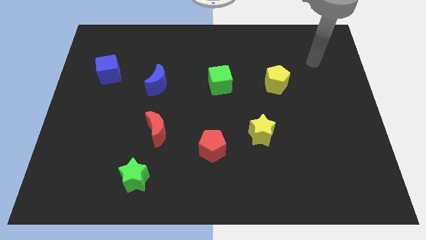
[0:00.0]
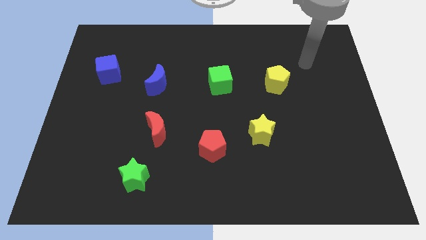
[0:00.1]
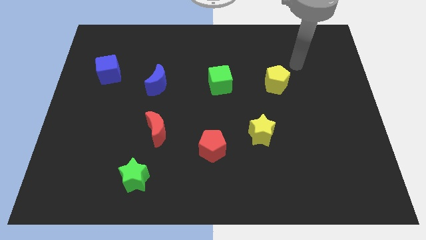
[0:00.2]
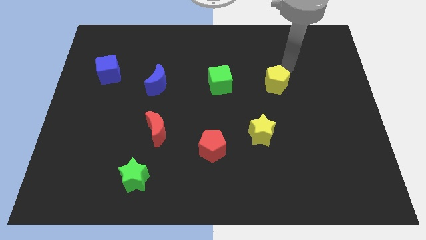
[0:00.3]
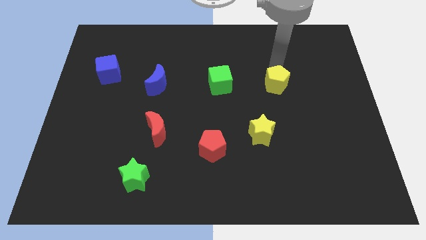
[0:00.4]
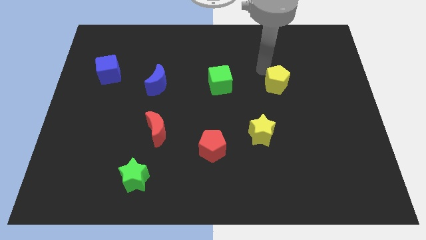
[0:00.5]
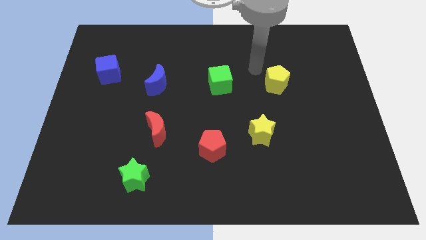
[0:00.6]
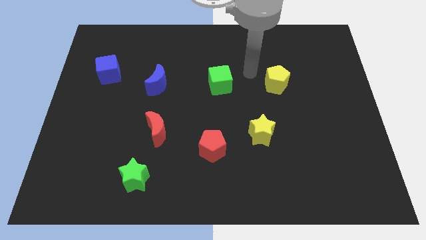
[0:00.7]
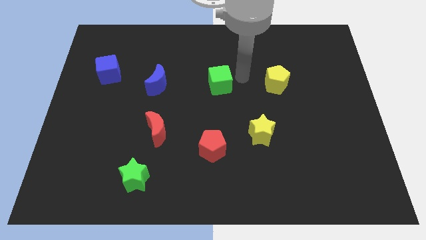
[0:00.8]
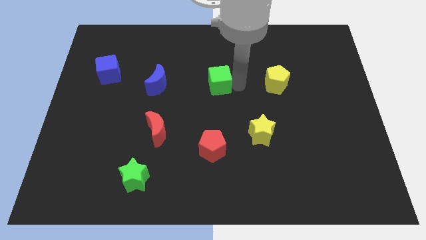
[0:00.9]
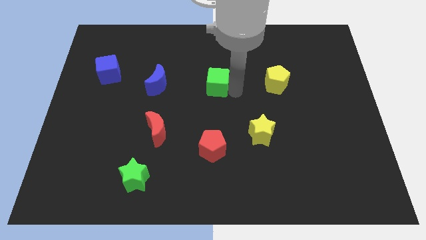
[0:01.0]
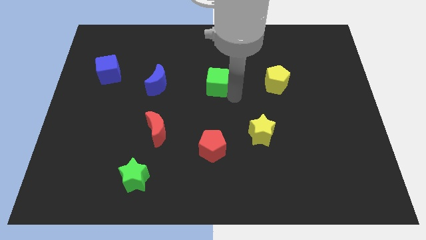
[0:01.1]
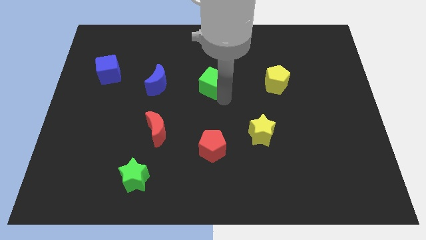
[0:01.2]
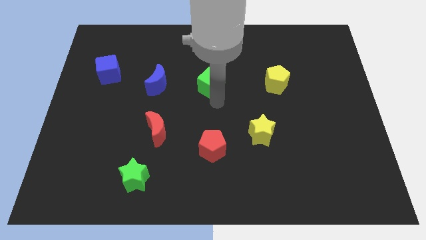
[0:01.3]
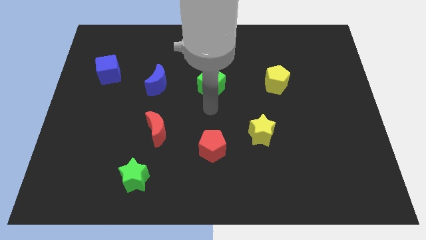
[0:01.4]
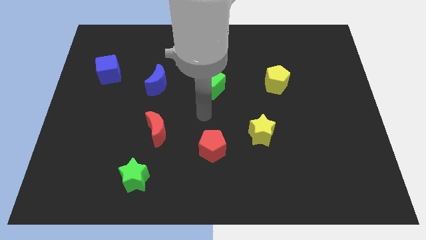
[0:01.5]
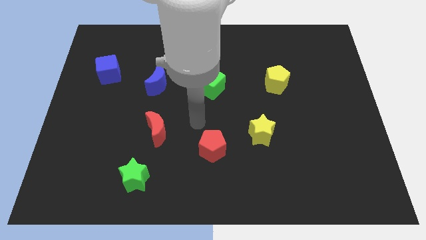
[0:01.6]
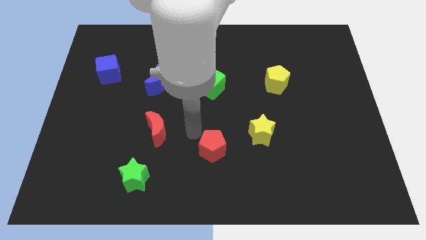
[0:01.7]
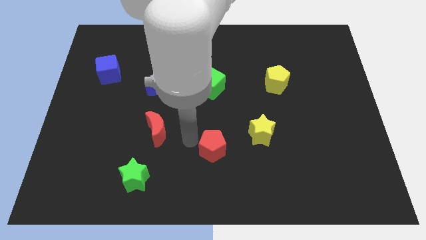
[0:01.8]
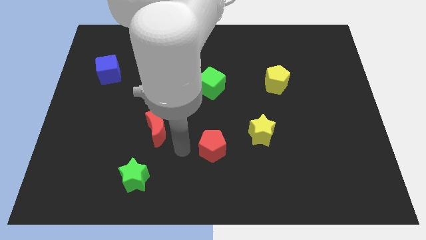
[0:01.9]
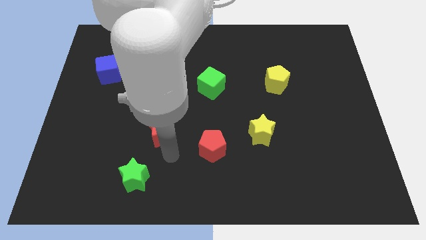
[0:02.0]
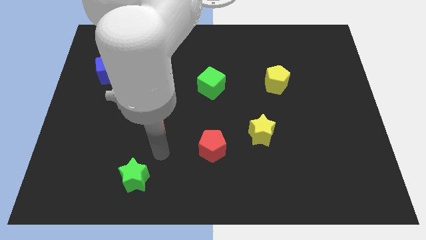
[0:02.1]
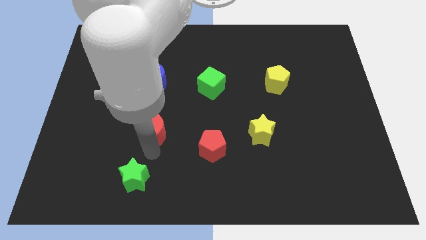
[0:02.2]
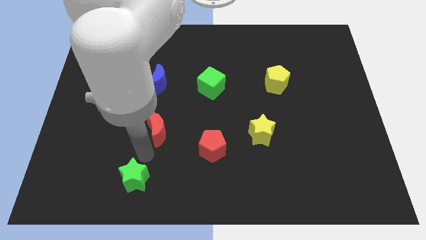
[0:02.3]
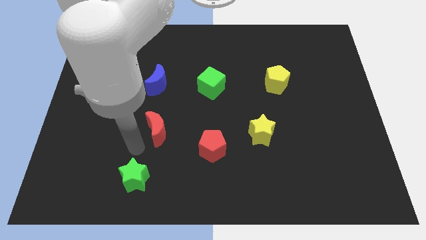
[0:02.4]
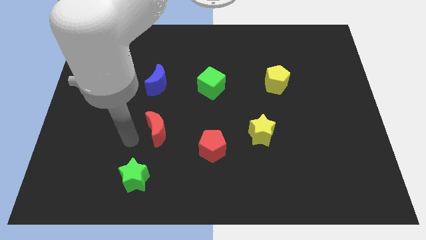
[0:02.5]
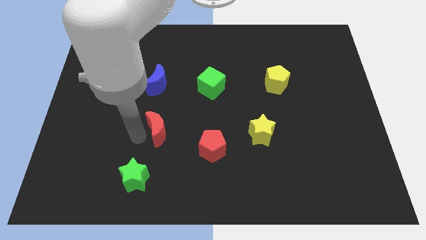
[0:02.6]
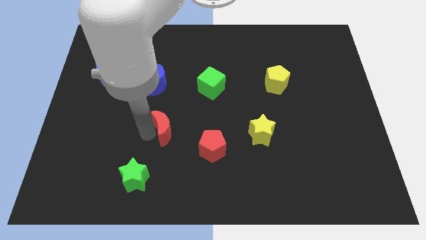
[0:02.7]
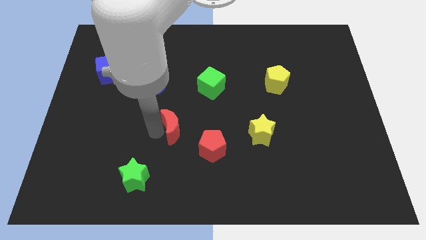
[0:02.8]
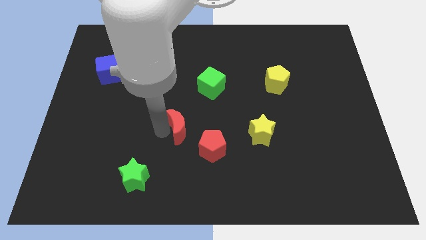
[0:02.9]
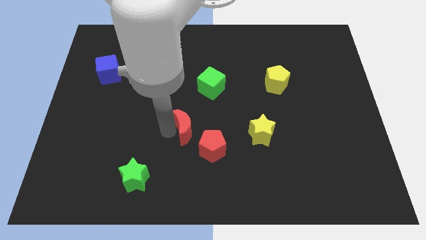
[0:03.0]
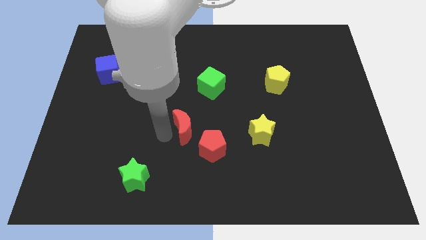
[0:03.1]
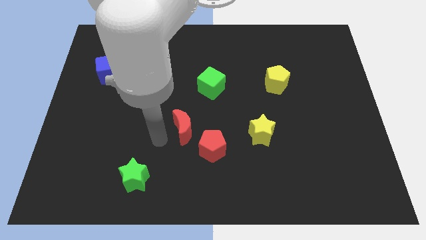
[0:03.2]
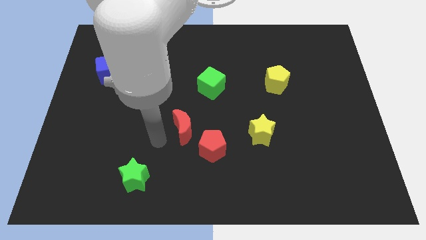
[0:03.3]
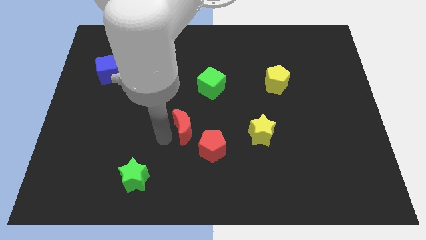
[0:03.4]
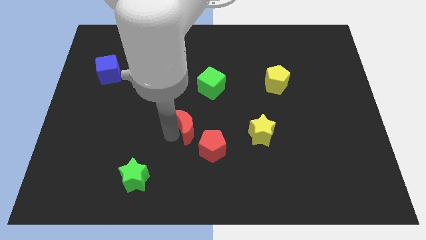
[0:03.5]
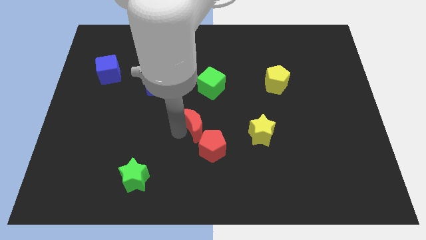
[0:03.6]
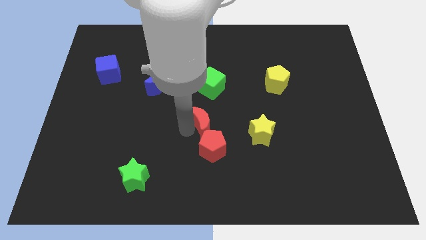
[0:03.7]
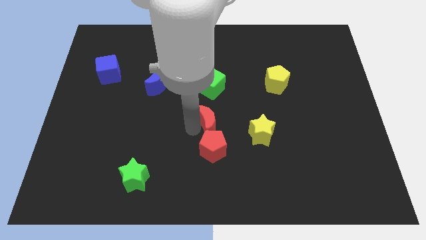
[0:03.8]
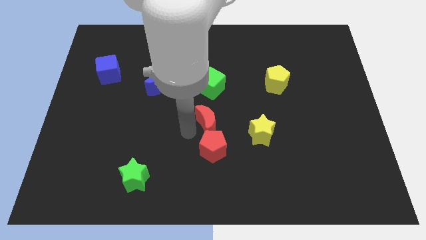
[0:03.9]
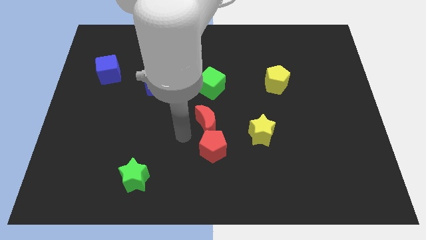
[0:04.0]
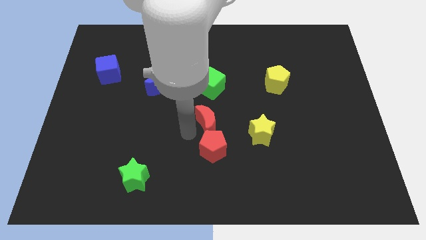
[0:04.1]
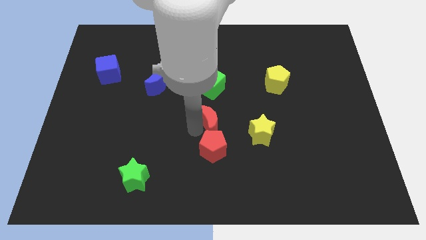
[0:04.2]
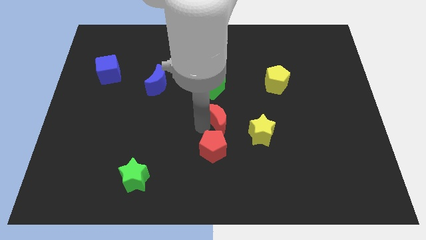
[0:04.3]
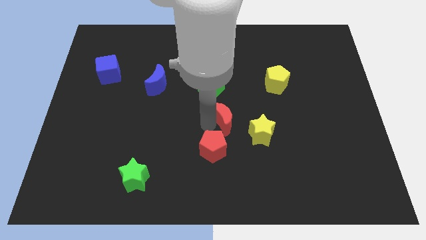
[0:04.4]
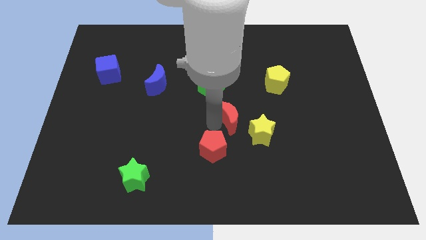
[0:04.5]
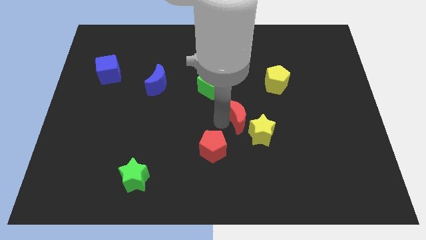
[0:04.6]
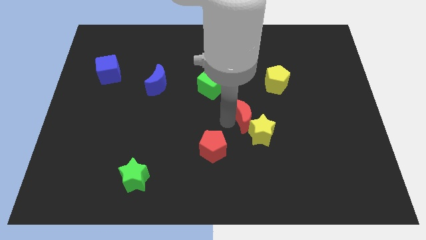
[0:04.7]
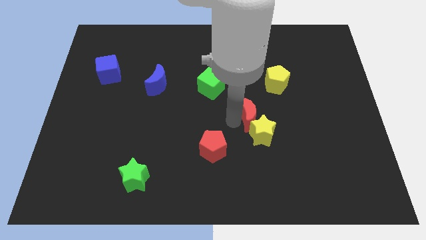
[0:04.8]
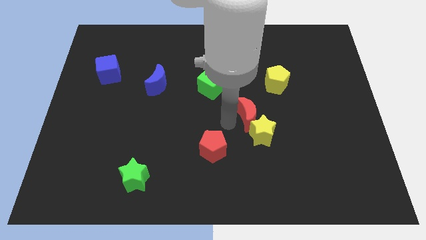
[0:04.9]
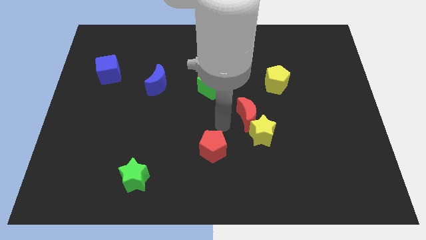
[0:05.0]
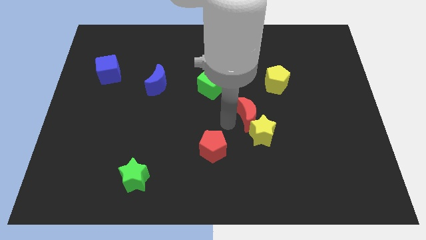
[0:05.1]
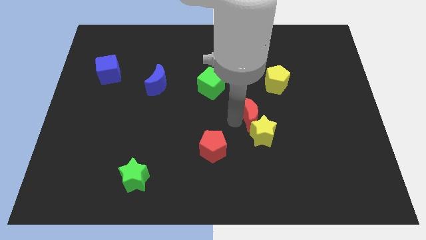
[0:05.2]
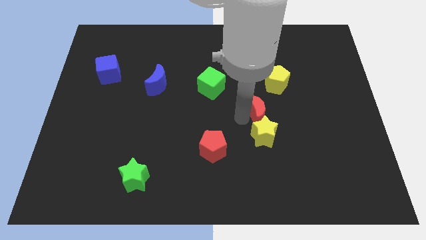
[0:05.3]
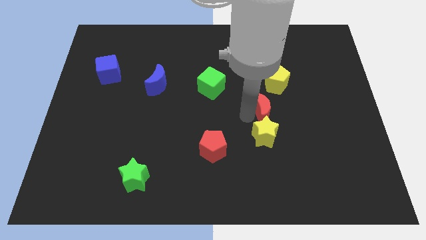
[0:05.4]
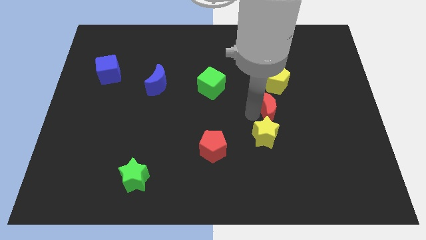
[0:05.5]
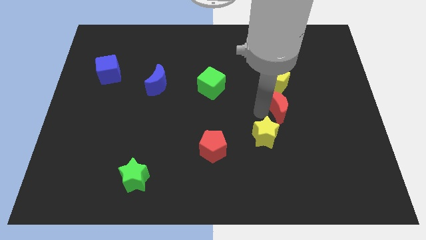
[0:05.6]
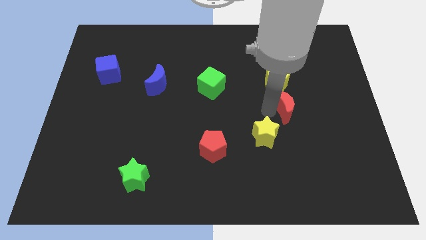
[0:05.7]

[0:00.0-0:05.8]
push the red moon to the bottom right side of the yellow pentagon
